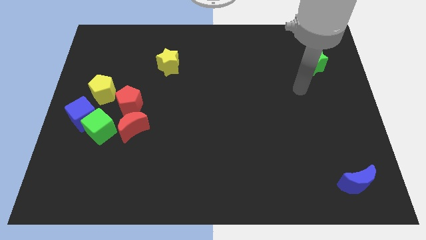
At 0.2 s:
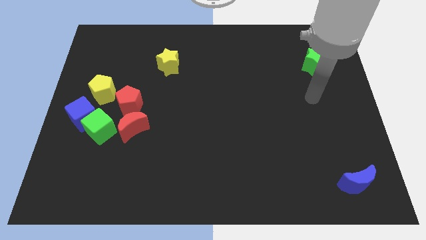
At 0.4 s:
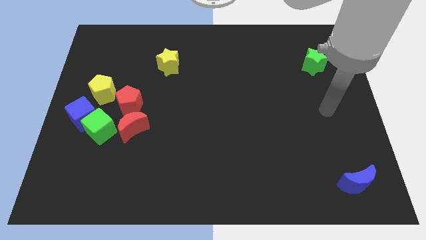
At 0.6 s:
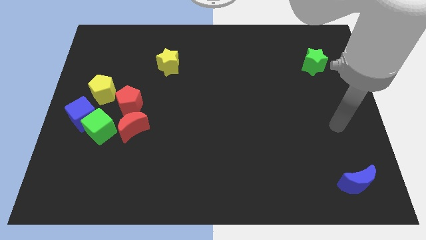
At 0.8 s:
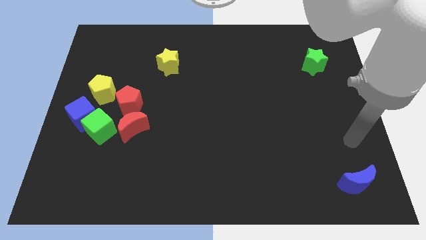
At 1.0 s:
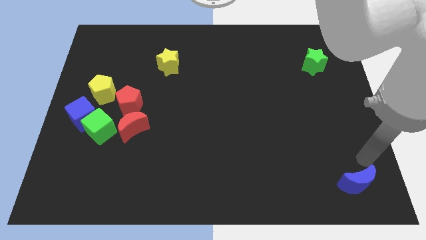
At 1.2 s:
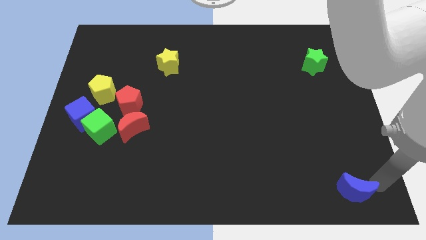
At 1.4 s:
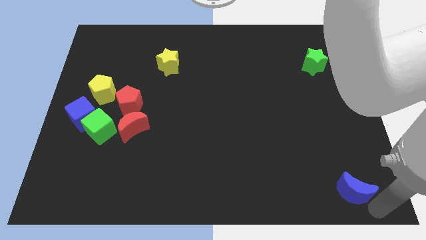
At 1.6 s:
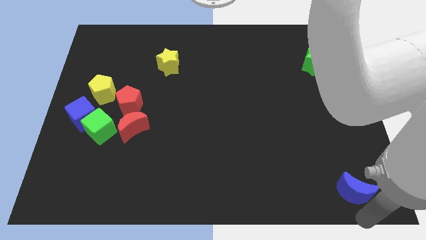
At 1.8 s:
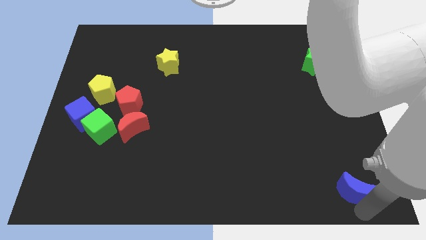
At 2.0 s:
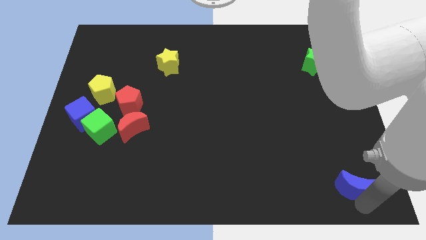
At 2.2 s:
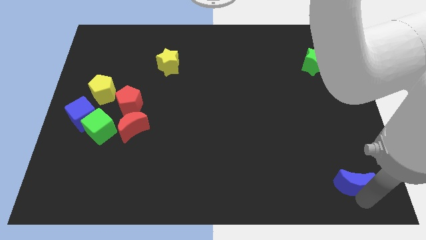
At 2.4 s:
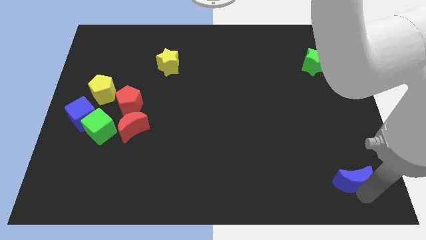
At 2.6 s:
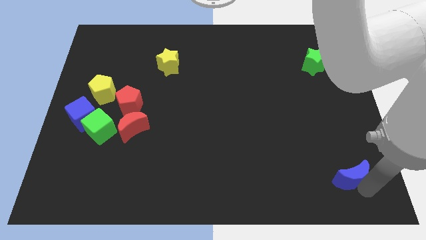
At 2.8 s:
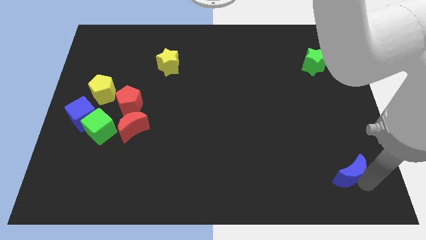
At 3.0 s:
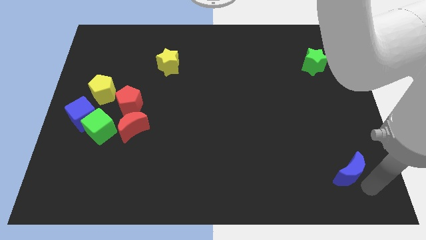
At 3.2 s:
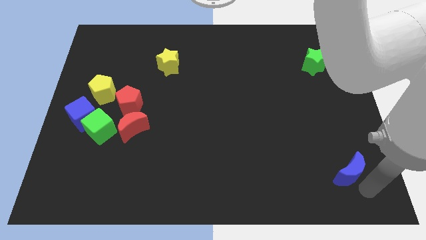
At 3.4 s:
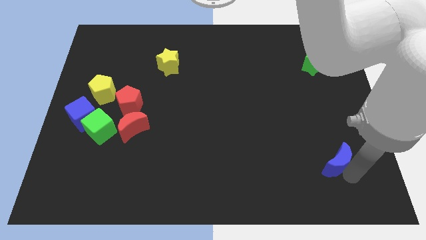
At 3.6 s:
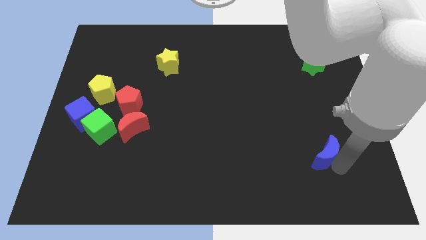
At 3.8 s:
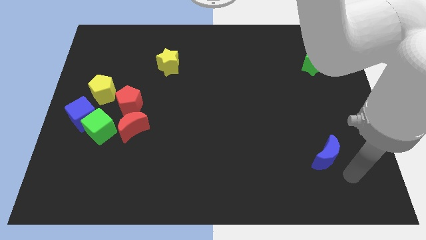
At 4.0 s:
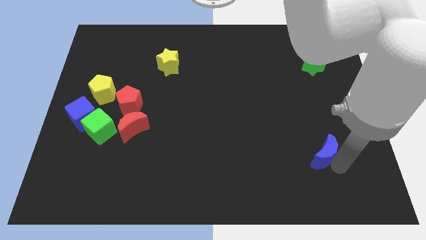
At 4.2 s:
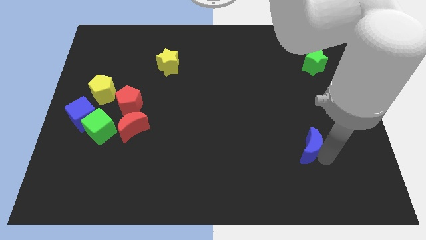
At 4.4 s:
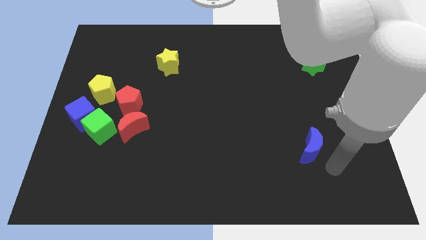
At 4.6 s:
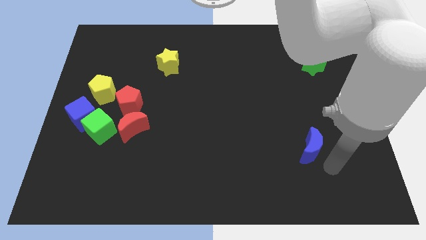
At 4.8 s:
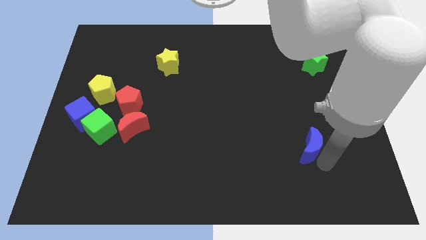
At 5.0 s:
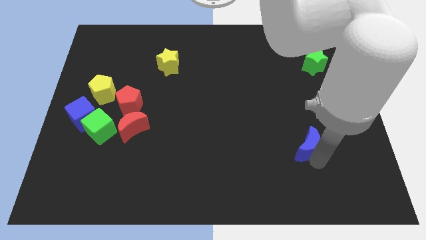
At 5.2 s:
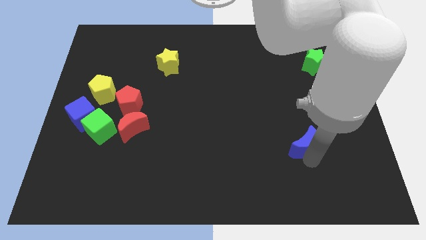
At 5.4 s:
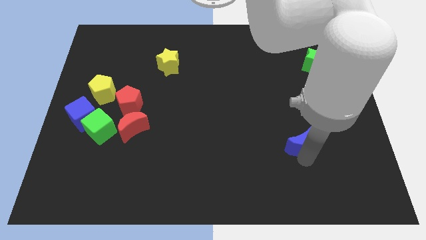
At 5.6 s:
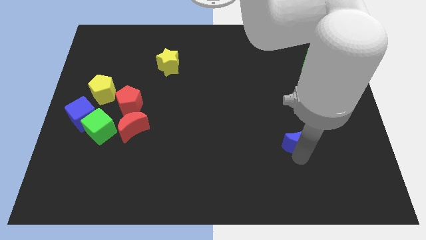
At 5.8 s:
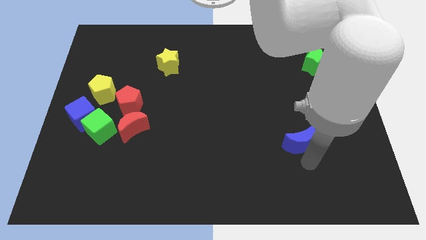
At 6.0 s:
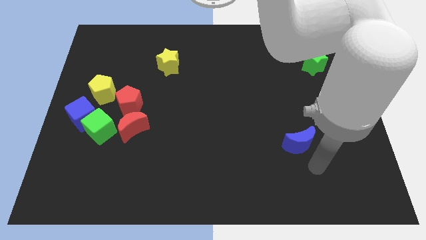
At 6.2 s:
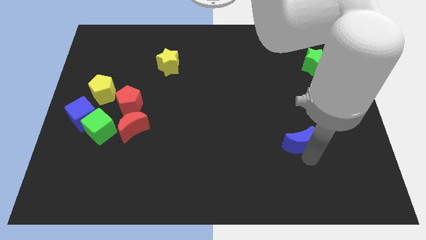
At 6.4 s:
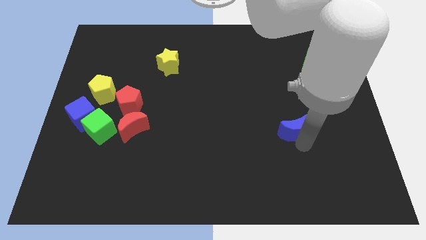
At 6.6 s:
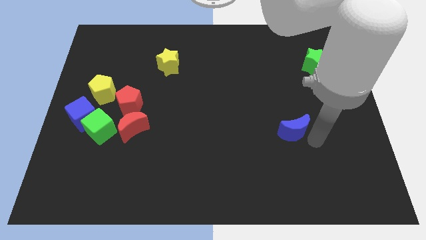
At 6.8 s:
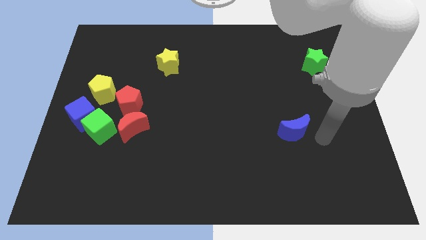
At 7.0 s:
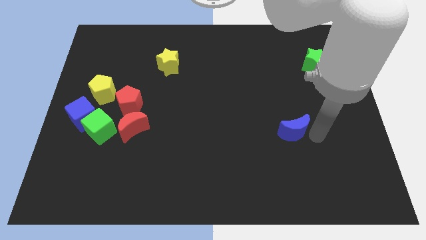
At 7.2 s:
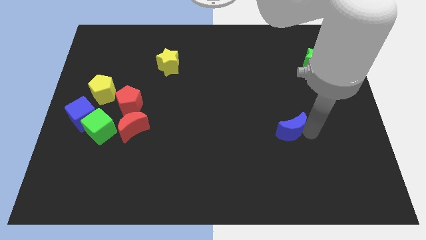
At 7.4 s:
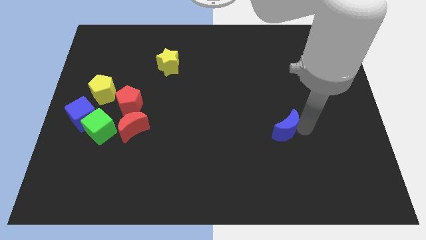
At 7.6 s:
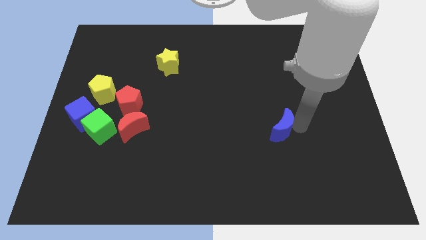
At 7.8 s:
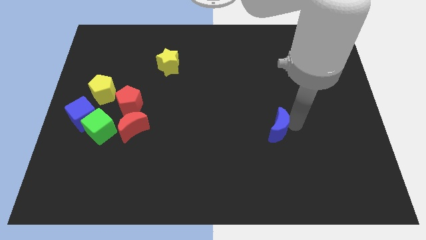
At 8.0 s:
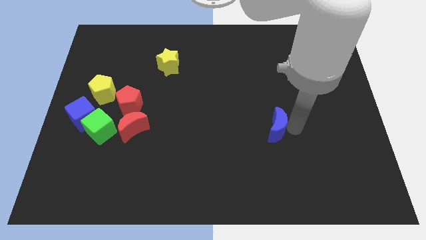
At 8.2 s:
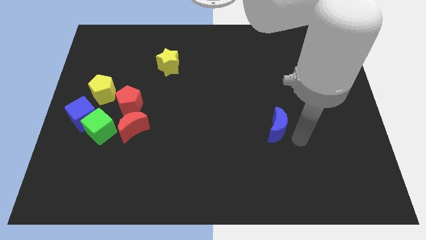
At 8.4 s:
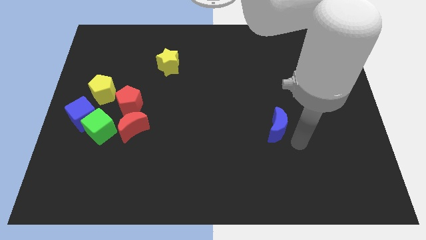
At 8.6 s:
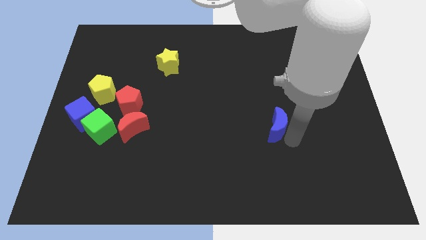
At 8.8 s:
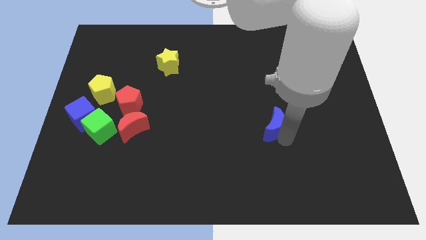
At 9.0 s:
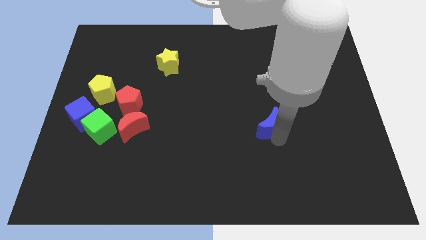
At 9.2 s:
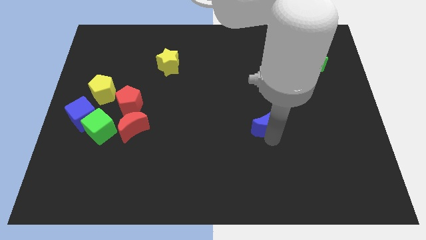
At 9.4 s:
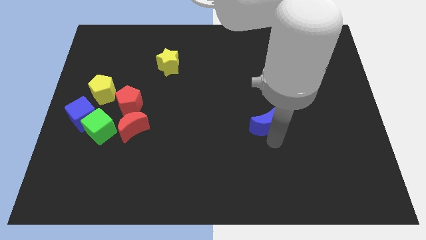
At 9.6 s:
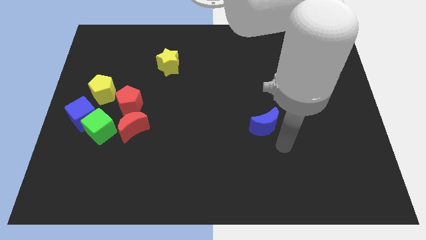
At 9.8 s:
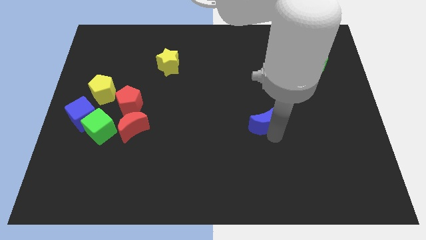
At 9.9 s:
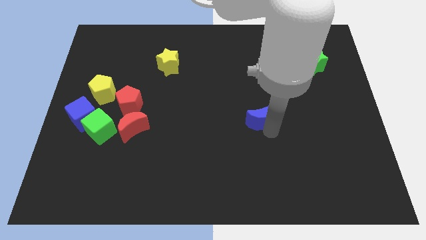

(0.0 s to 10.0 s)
put the blue moon to the center

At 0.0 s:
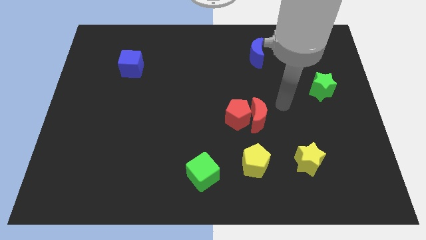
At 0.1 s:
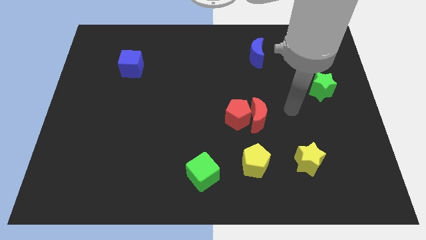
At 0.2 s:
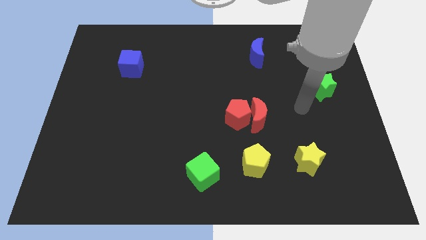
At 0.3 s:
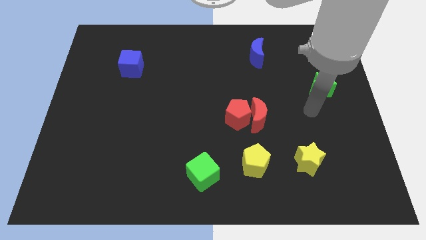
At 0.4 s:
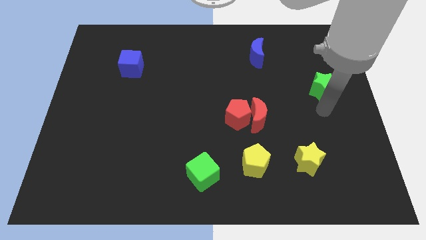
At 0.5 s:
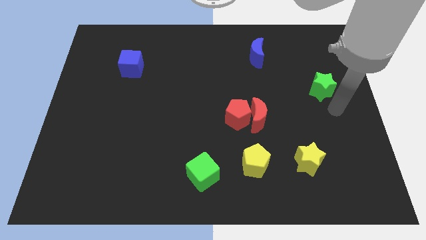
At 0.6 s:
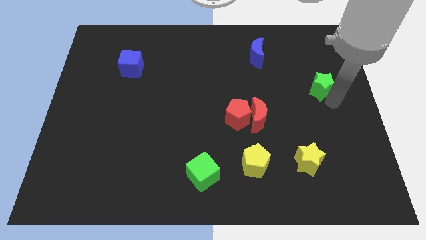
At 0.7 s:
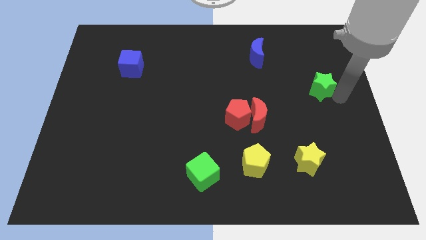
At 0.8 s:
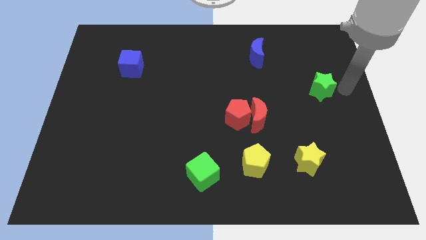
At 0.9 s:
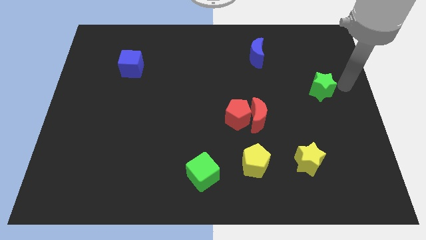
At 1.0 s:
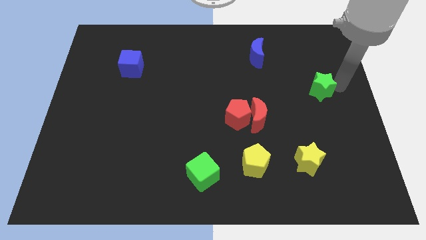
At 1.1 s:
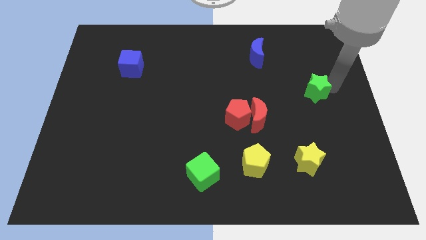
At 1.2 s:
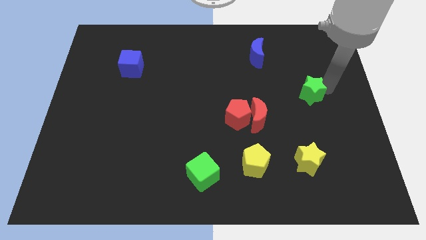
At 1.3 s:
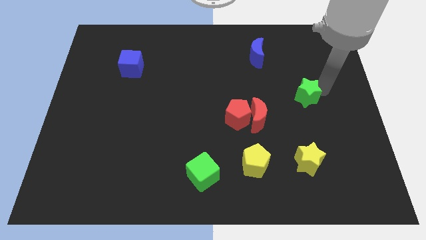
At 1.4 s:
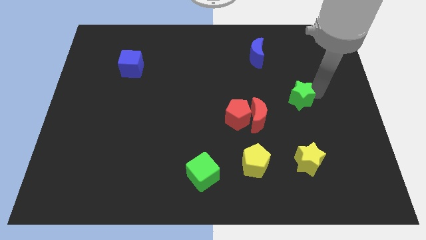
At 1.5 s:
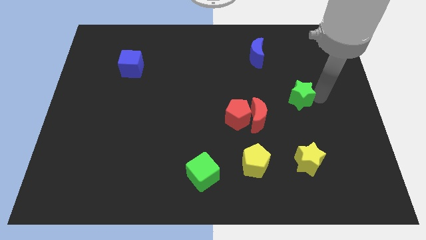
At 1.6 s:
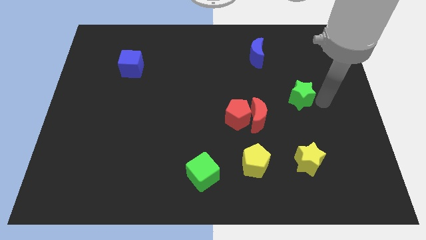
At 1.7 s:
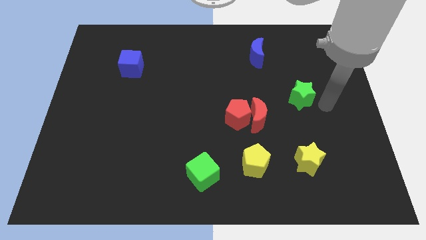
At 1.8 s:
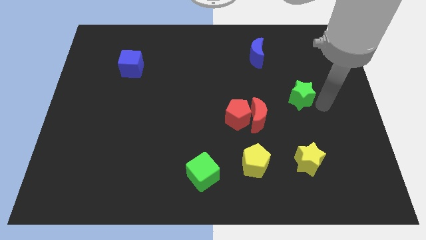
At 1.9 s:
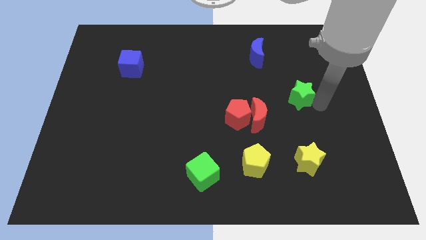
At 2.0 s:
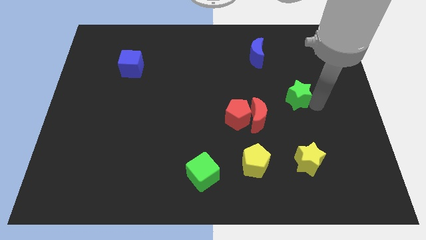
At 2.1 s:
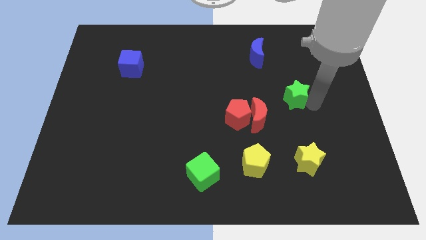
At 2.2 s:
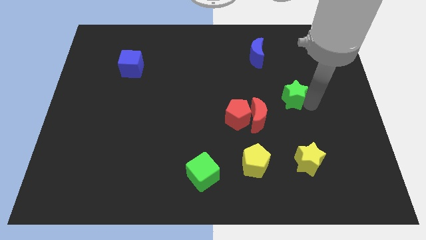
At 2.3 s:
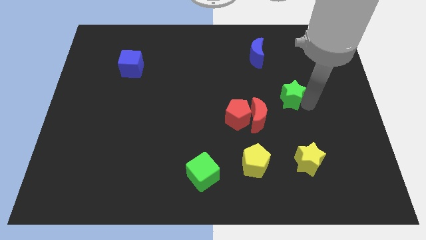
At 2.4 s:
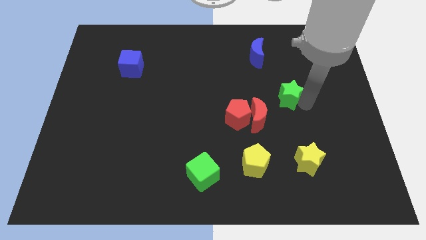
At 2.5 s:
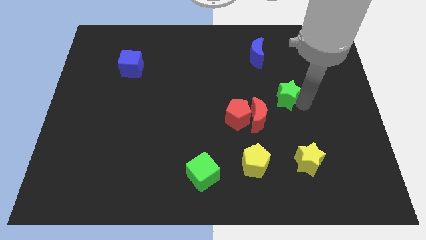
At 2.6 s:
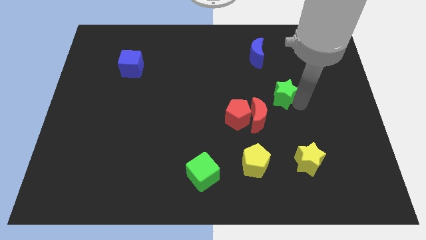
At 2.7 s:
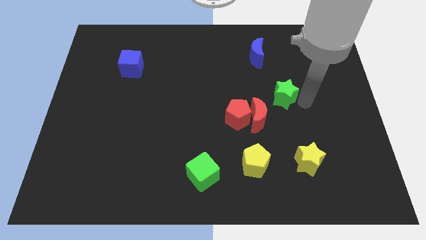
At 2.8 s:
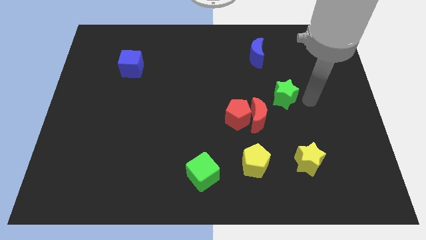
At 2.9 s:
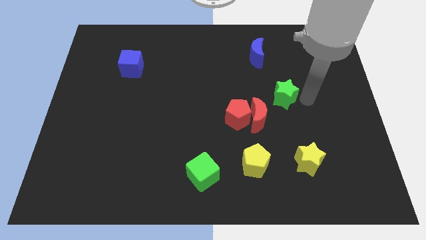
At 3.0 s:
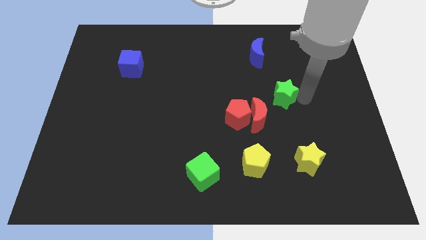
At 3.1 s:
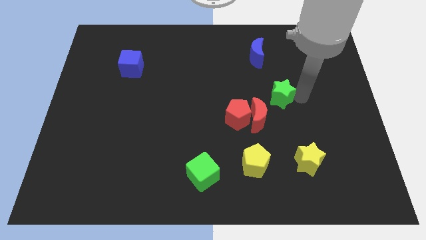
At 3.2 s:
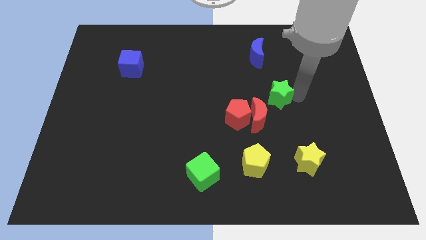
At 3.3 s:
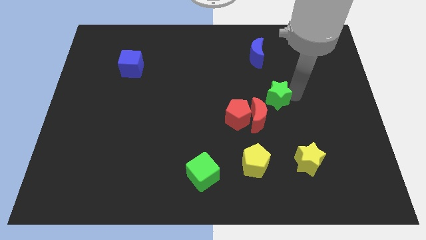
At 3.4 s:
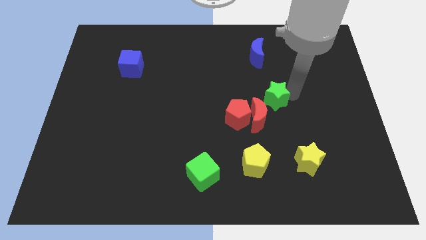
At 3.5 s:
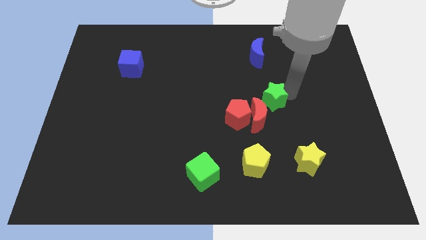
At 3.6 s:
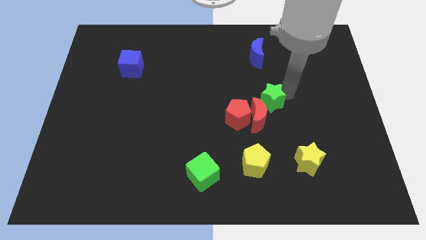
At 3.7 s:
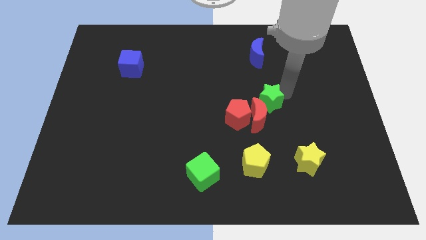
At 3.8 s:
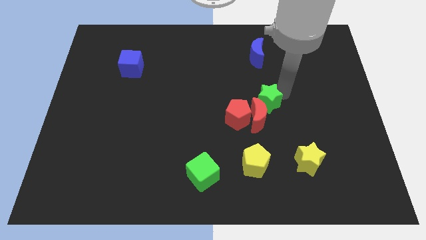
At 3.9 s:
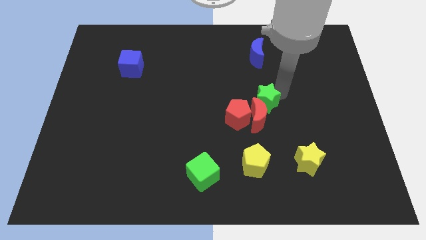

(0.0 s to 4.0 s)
put the green star to the middle of the board
